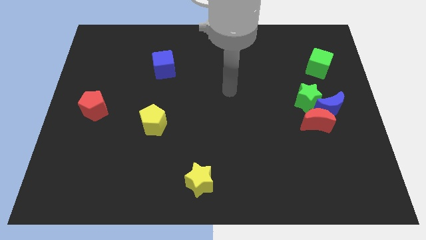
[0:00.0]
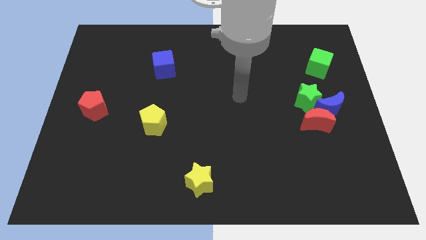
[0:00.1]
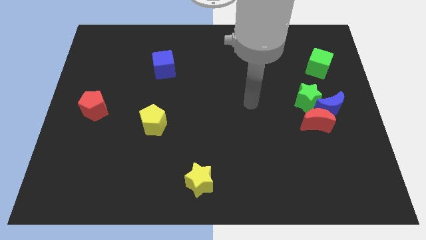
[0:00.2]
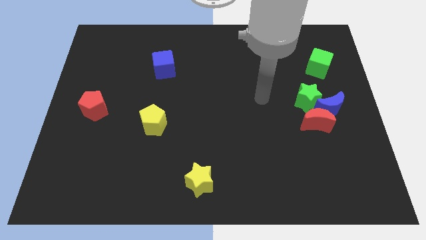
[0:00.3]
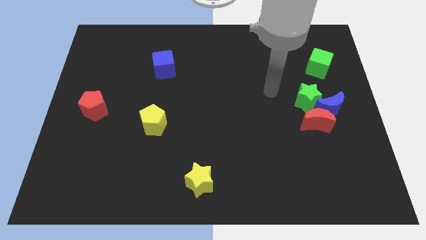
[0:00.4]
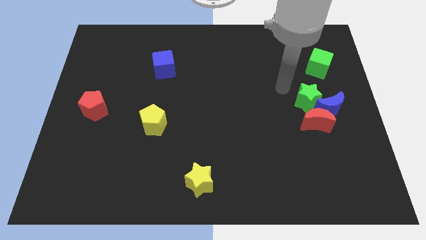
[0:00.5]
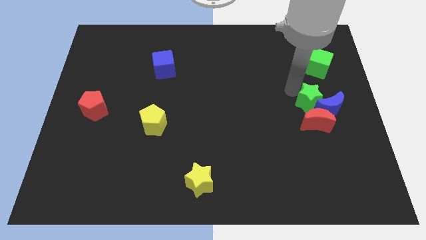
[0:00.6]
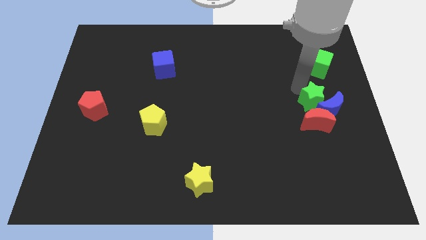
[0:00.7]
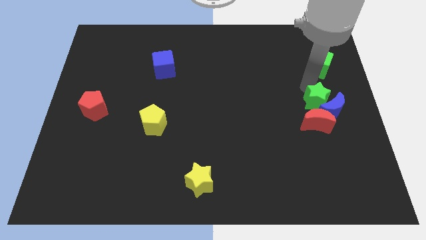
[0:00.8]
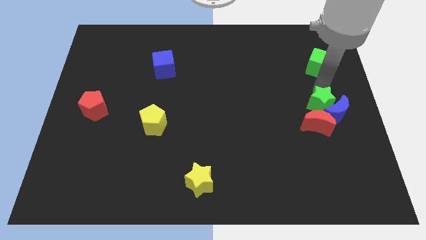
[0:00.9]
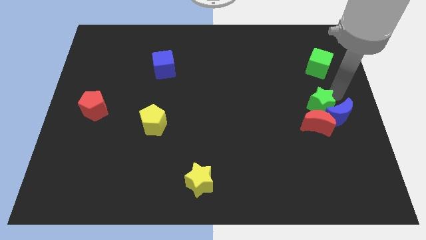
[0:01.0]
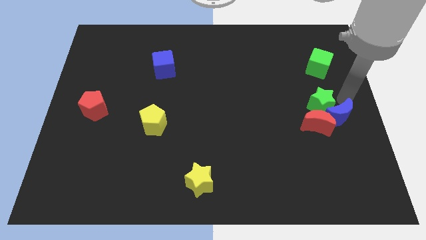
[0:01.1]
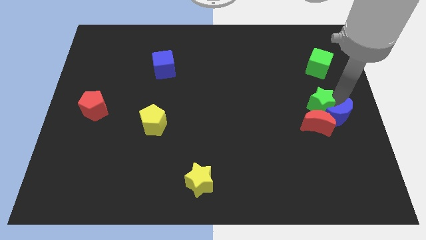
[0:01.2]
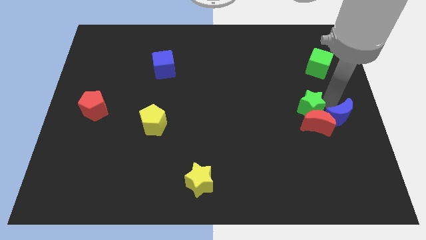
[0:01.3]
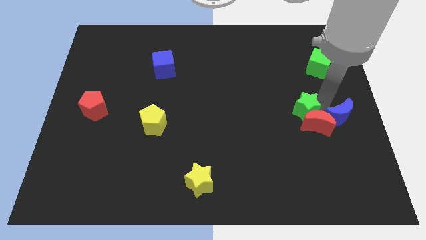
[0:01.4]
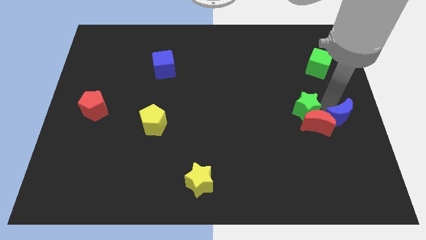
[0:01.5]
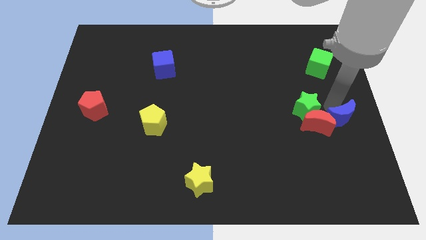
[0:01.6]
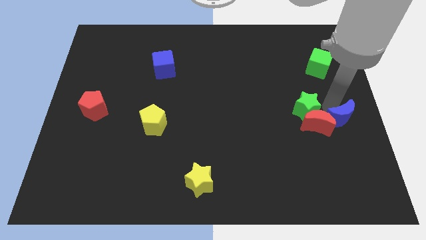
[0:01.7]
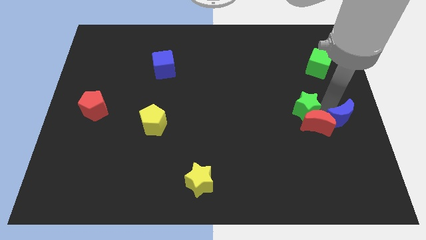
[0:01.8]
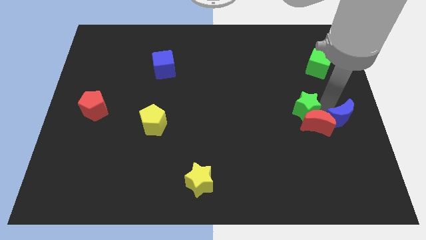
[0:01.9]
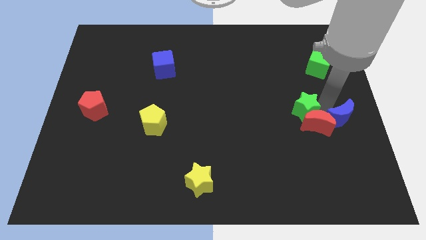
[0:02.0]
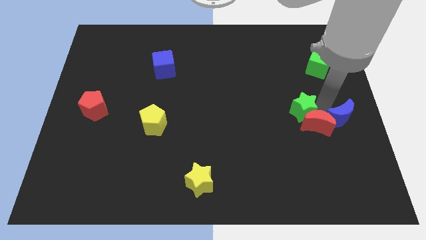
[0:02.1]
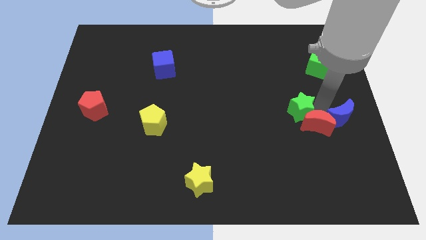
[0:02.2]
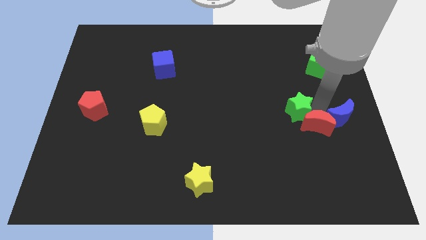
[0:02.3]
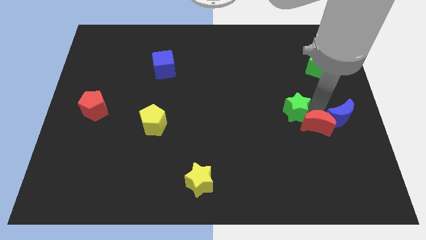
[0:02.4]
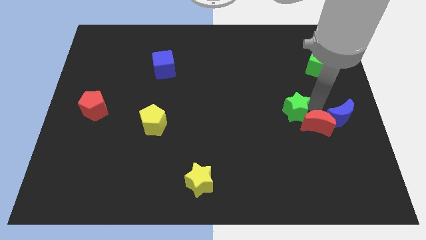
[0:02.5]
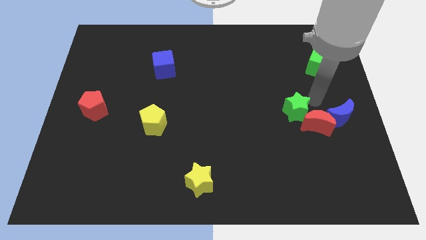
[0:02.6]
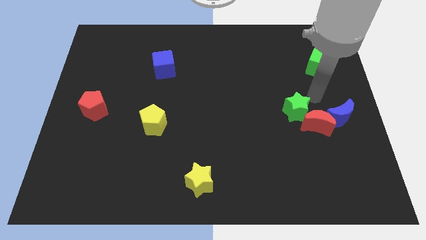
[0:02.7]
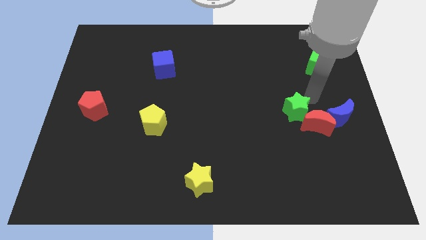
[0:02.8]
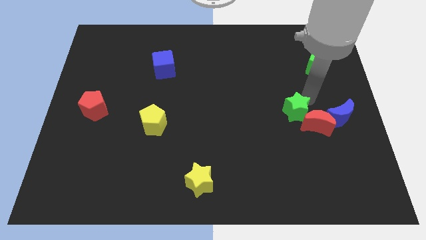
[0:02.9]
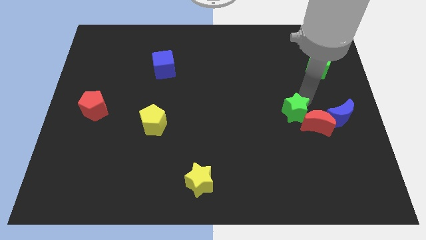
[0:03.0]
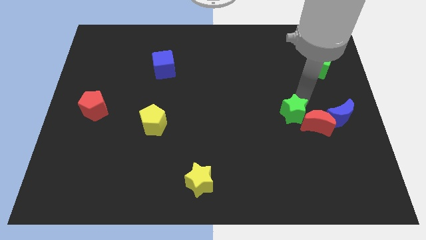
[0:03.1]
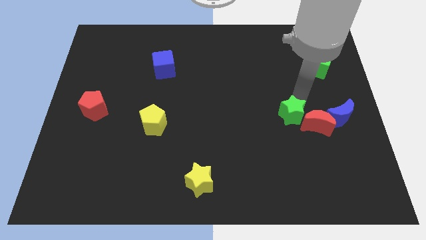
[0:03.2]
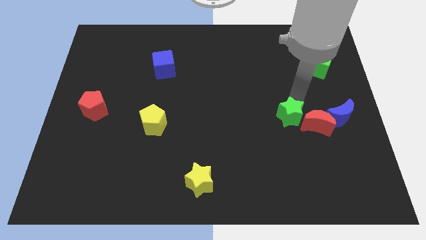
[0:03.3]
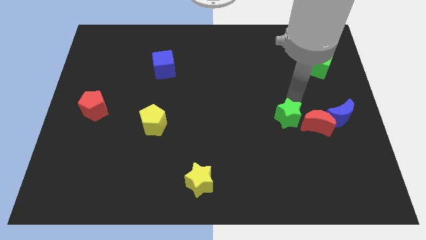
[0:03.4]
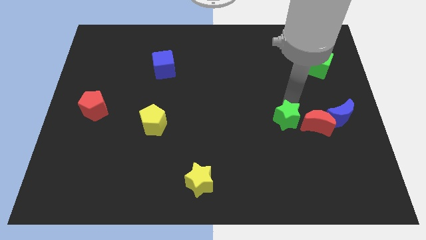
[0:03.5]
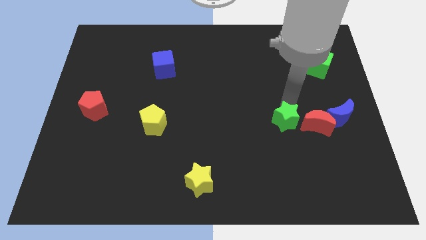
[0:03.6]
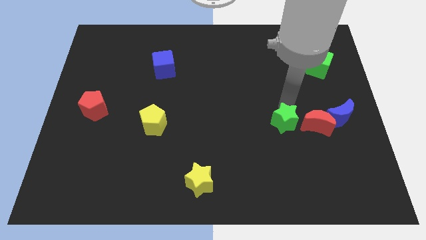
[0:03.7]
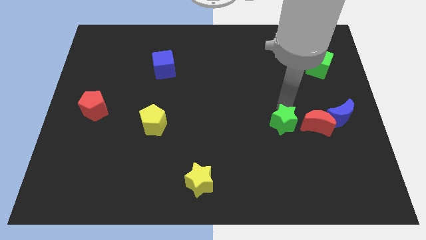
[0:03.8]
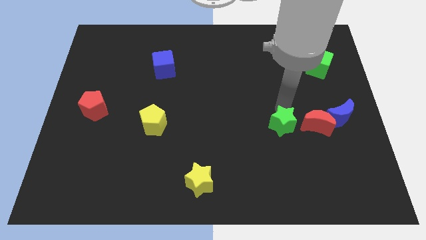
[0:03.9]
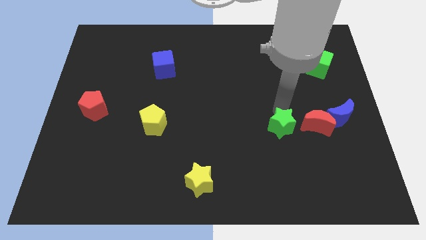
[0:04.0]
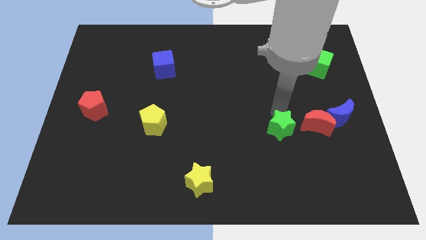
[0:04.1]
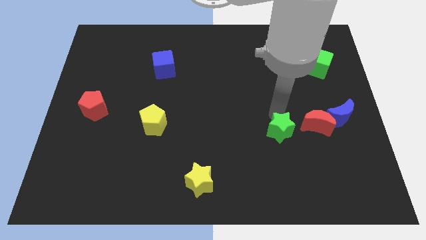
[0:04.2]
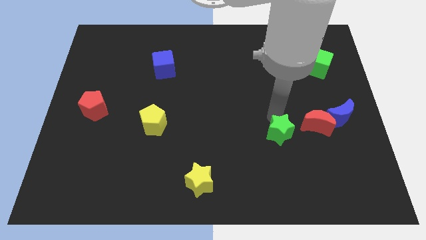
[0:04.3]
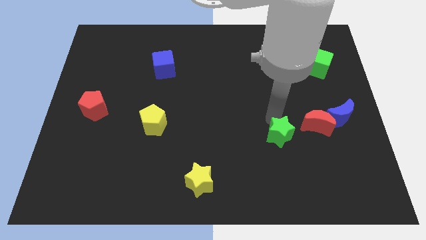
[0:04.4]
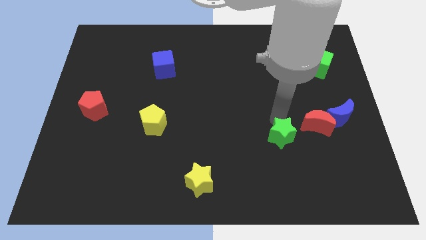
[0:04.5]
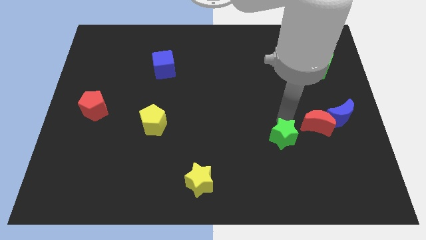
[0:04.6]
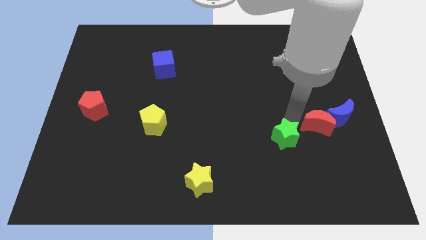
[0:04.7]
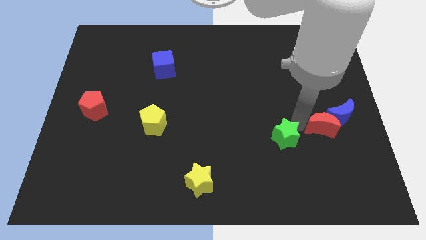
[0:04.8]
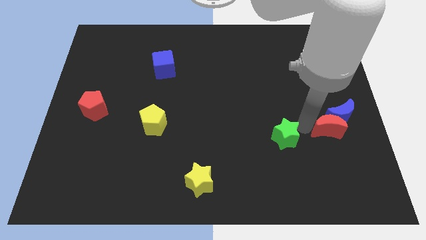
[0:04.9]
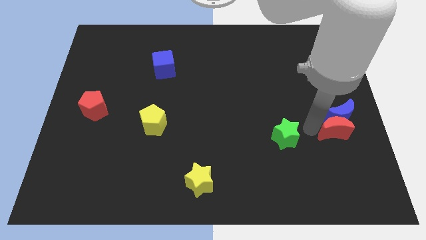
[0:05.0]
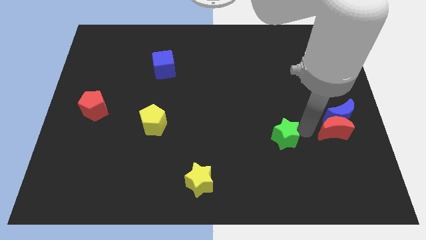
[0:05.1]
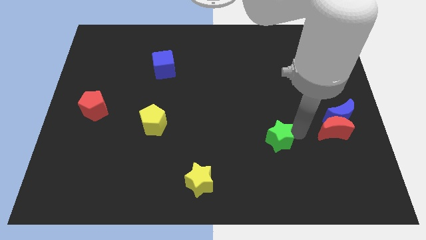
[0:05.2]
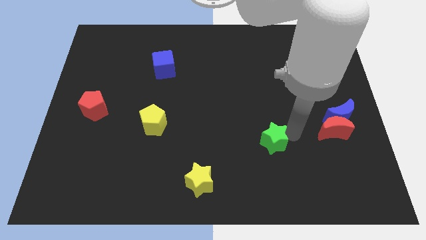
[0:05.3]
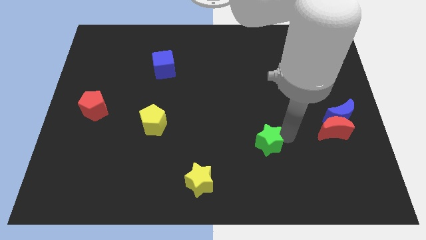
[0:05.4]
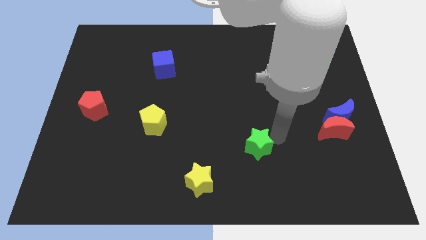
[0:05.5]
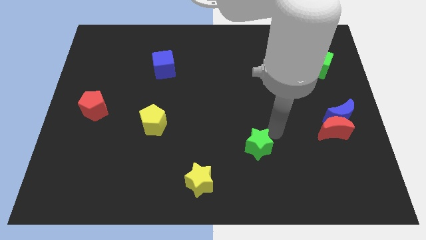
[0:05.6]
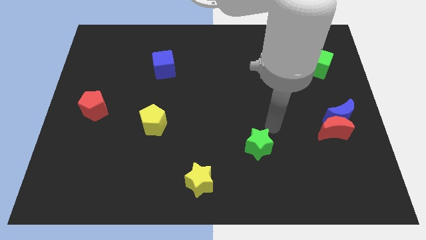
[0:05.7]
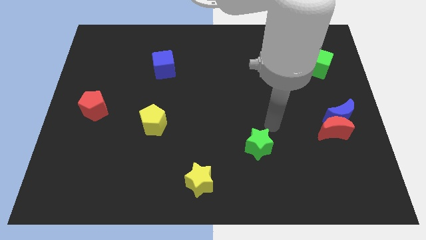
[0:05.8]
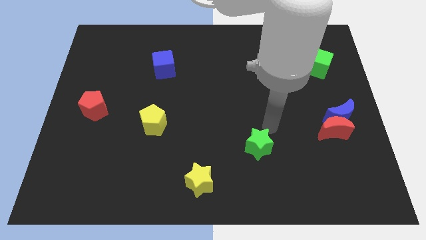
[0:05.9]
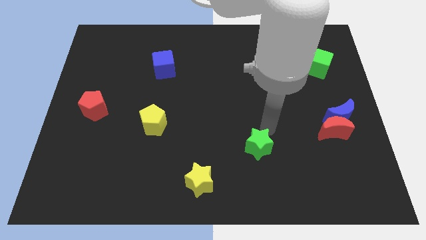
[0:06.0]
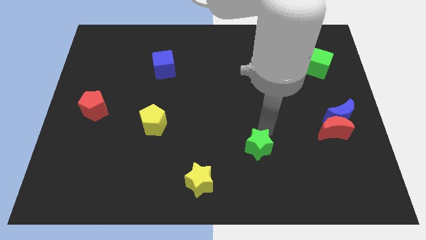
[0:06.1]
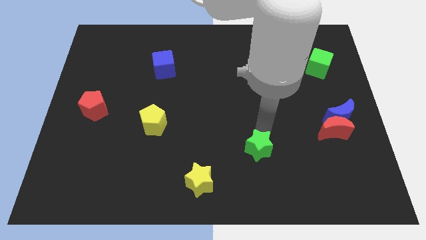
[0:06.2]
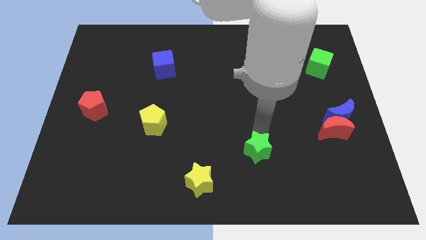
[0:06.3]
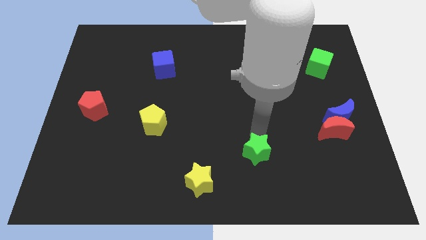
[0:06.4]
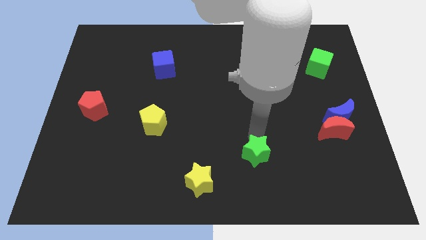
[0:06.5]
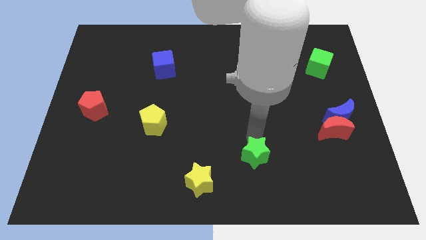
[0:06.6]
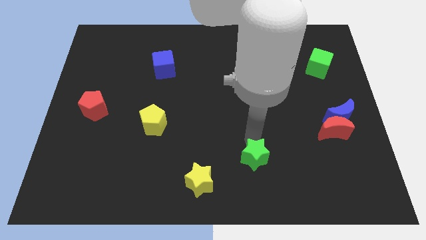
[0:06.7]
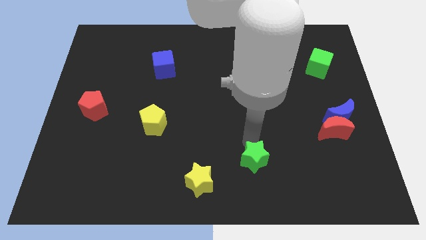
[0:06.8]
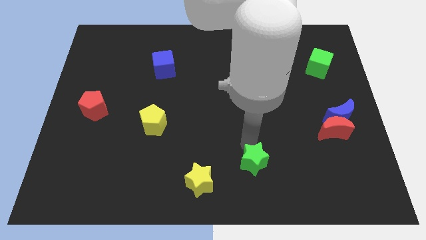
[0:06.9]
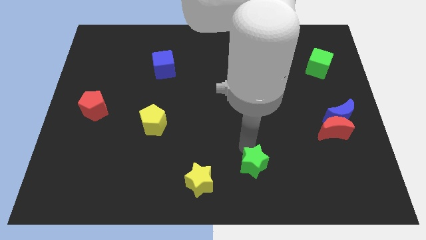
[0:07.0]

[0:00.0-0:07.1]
push the green star to the bottom
